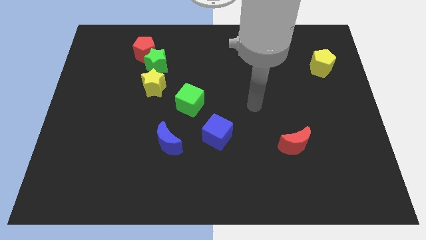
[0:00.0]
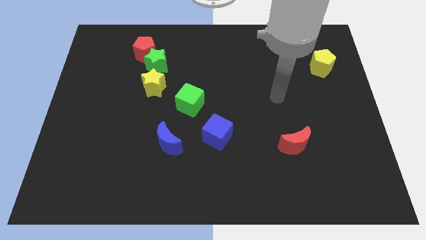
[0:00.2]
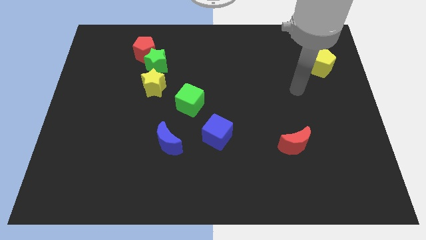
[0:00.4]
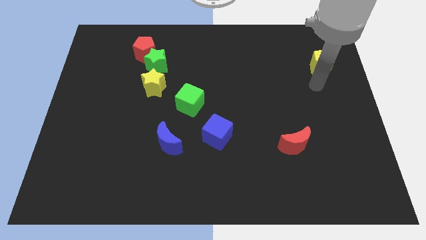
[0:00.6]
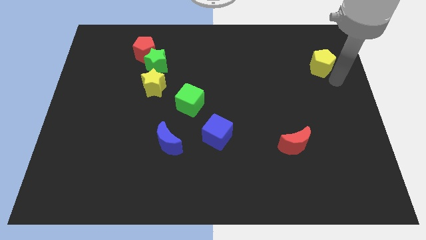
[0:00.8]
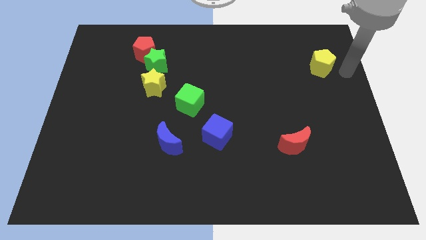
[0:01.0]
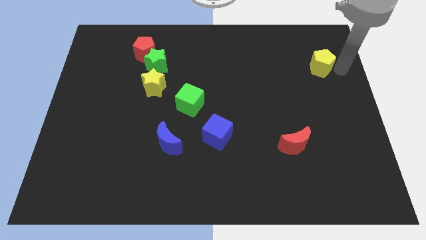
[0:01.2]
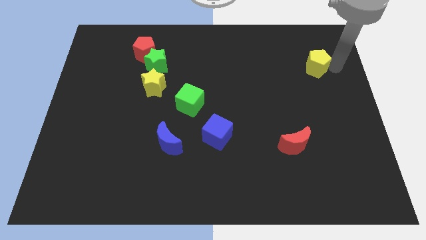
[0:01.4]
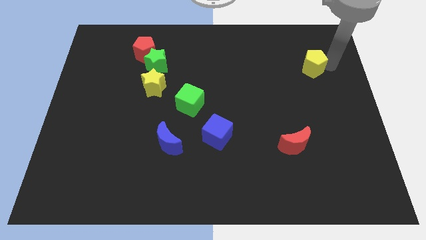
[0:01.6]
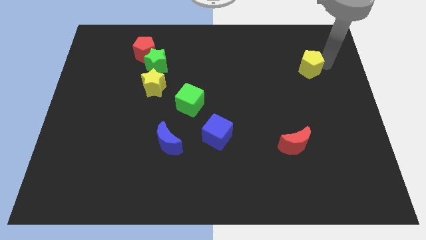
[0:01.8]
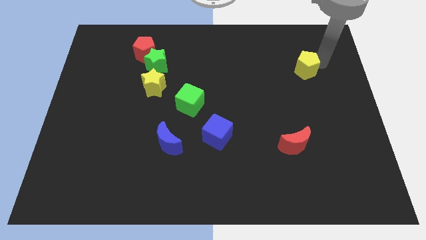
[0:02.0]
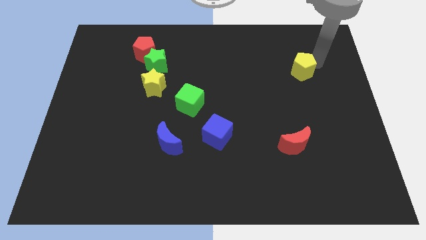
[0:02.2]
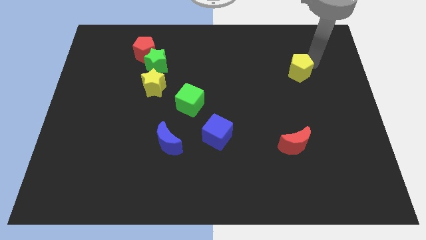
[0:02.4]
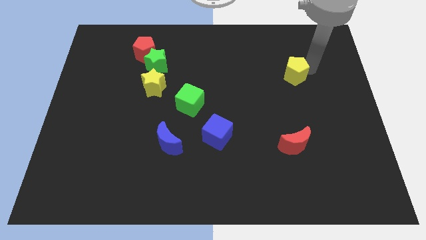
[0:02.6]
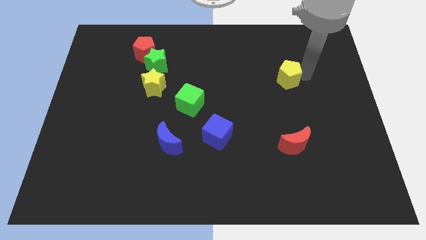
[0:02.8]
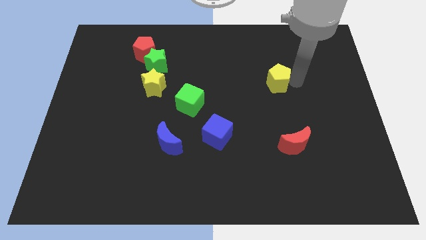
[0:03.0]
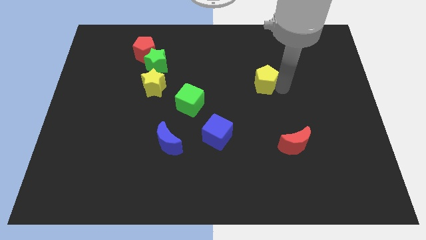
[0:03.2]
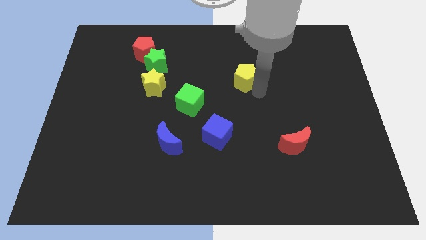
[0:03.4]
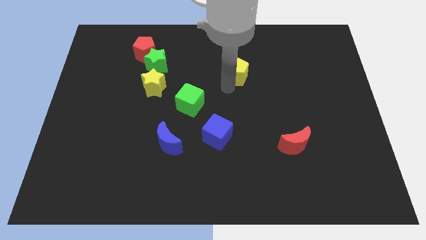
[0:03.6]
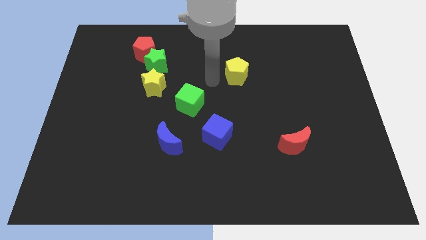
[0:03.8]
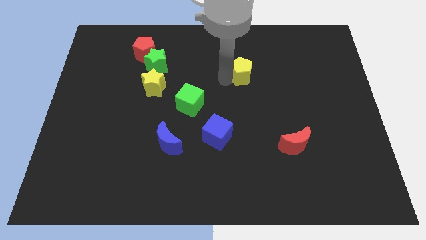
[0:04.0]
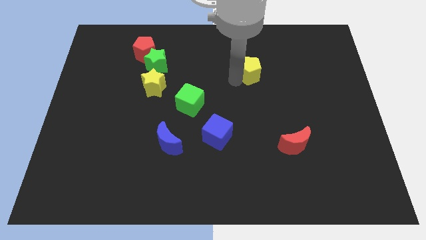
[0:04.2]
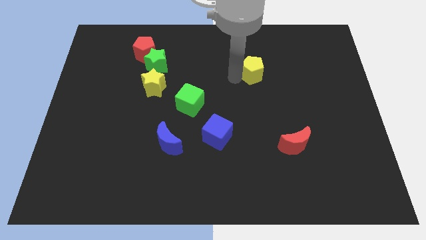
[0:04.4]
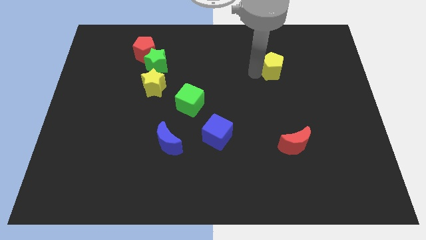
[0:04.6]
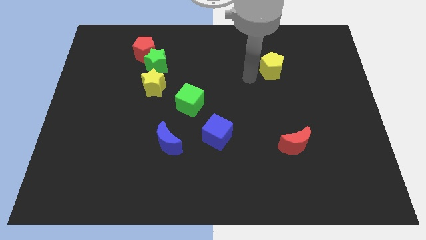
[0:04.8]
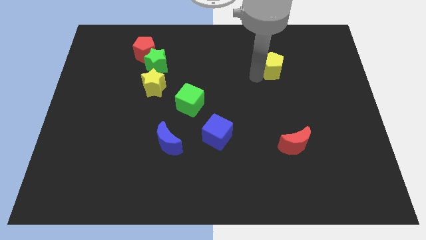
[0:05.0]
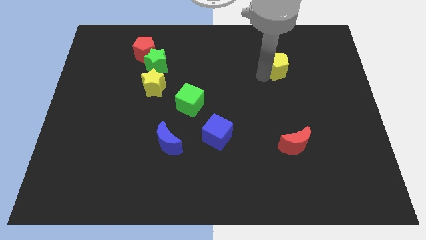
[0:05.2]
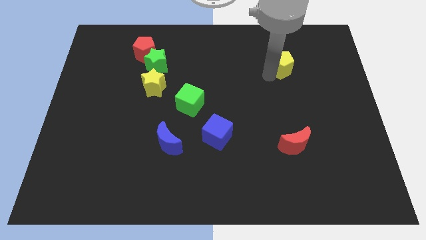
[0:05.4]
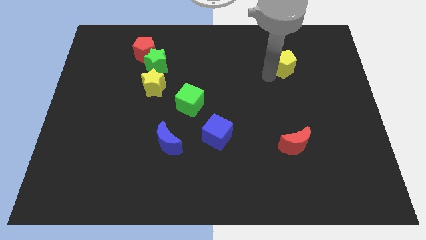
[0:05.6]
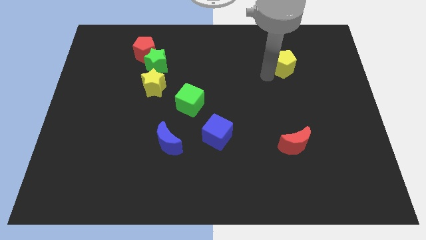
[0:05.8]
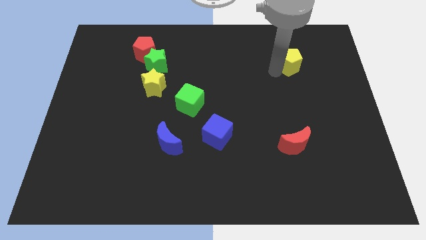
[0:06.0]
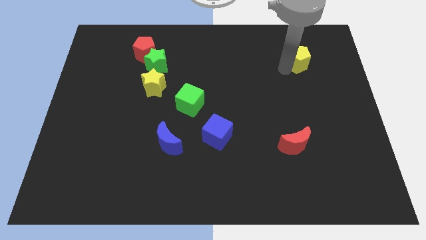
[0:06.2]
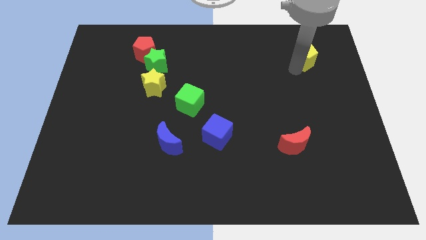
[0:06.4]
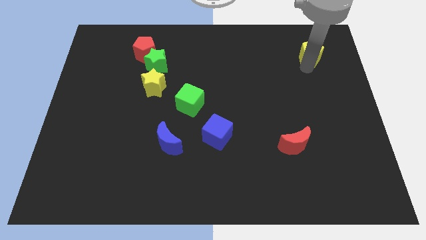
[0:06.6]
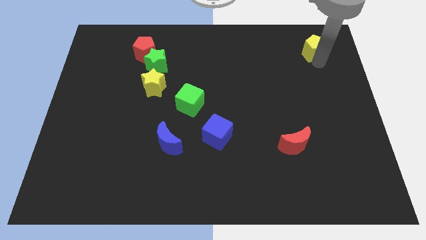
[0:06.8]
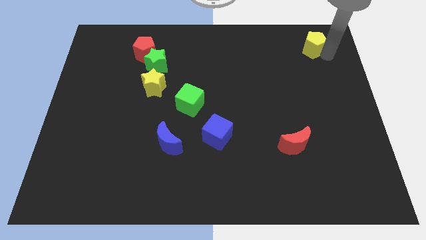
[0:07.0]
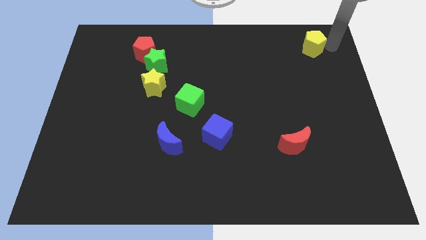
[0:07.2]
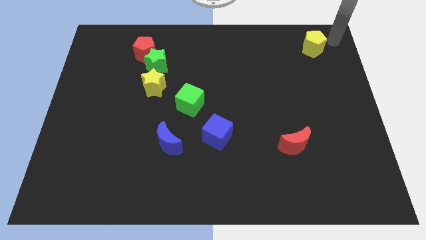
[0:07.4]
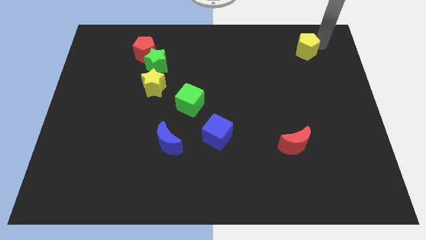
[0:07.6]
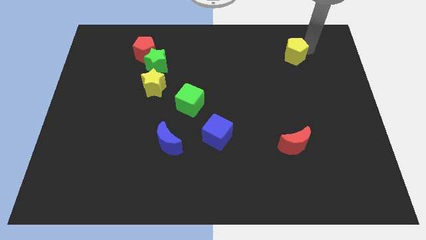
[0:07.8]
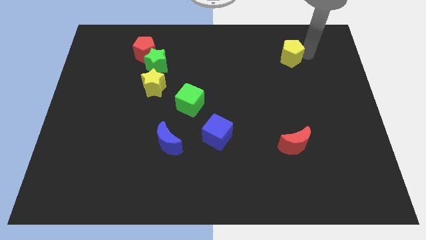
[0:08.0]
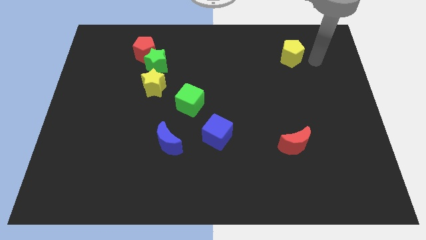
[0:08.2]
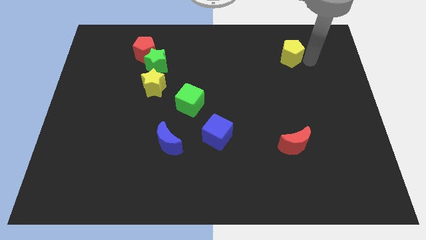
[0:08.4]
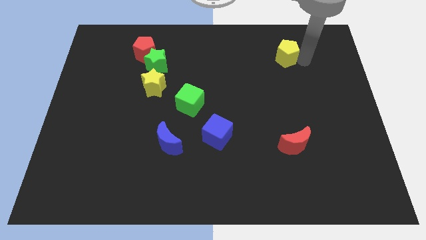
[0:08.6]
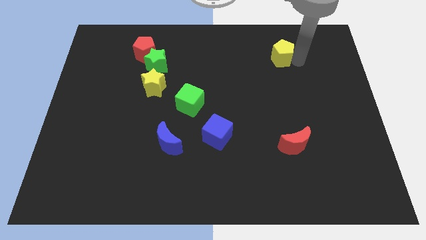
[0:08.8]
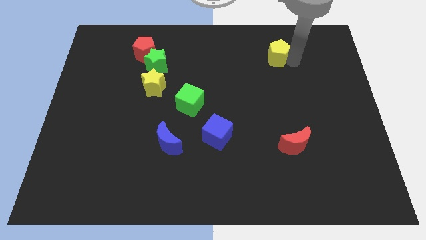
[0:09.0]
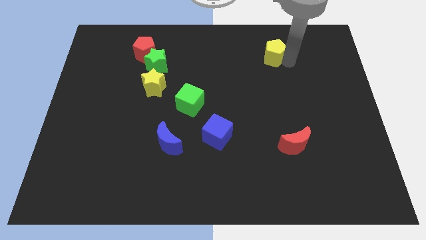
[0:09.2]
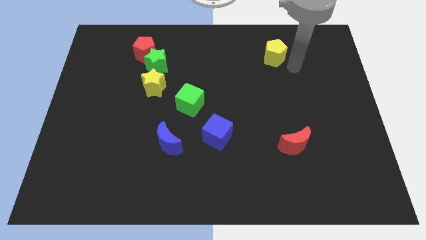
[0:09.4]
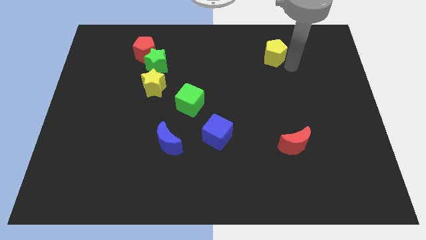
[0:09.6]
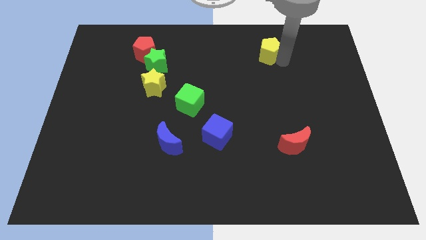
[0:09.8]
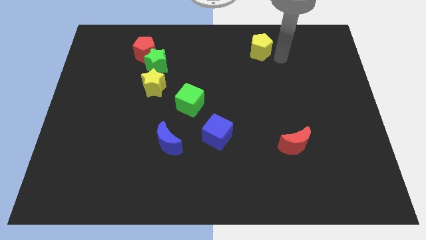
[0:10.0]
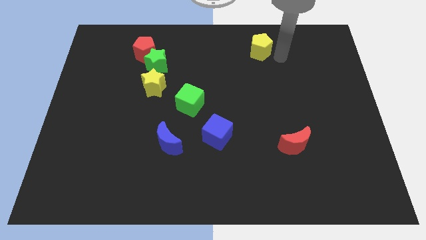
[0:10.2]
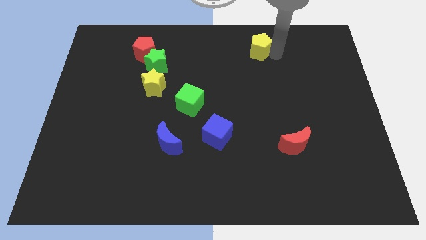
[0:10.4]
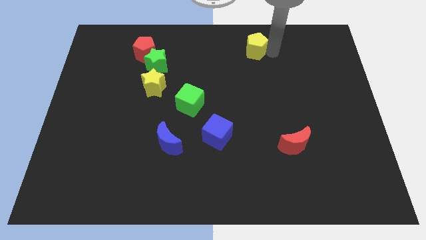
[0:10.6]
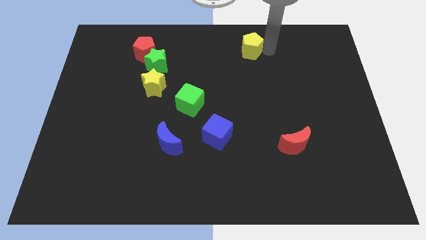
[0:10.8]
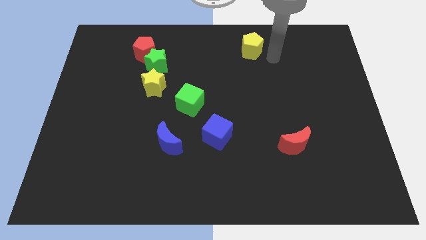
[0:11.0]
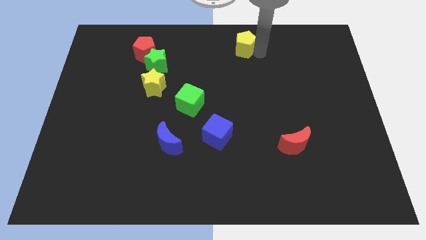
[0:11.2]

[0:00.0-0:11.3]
move the yellow pentagon to the top side
